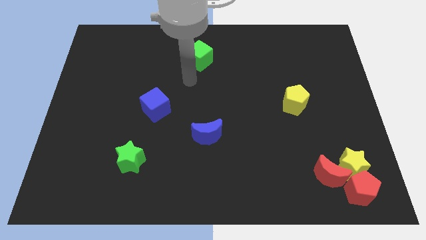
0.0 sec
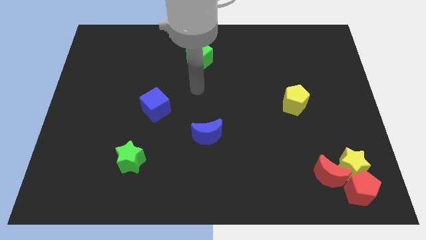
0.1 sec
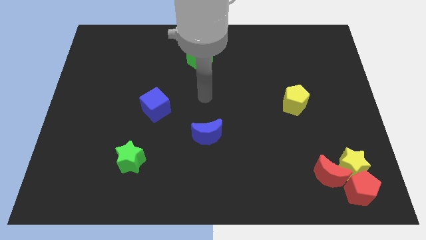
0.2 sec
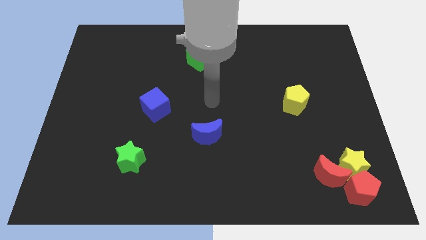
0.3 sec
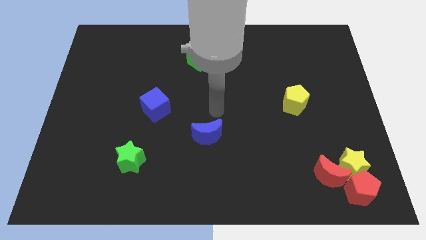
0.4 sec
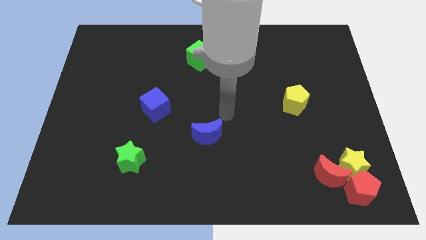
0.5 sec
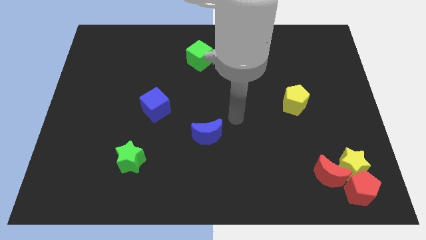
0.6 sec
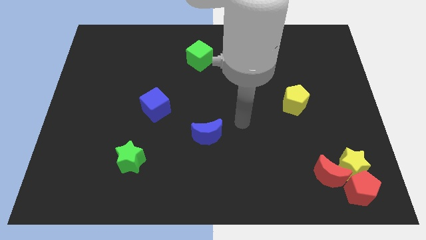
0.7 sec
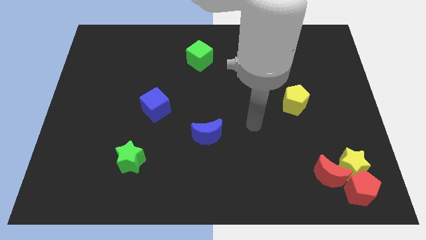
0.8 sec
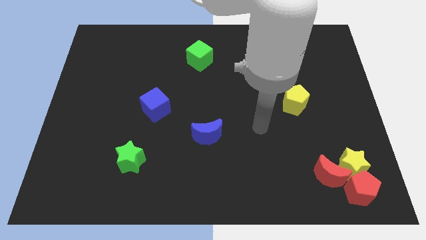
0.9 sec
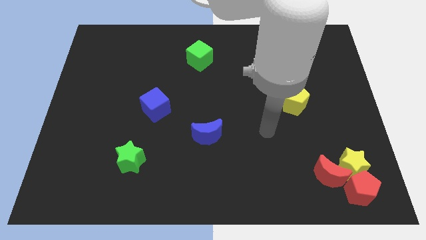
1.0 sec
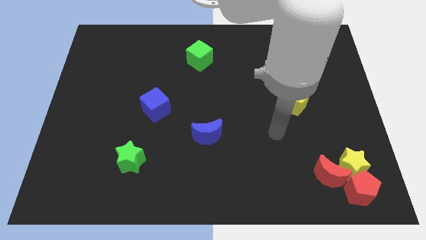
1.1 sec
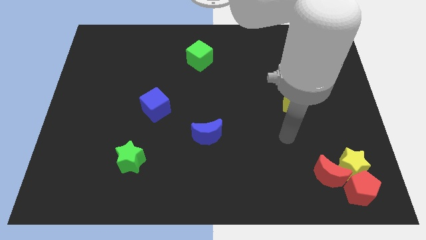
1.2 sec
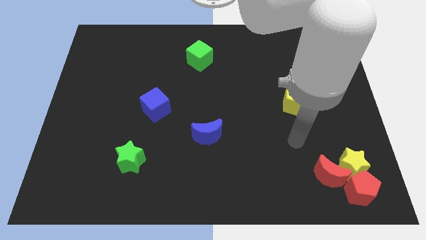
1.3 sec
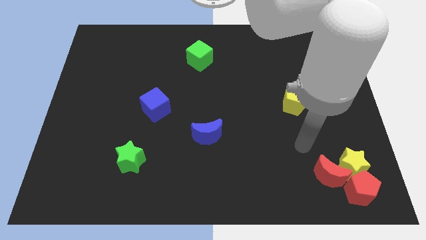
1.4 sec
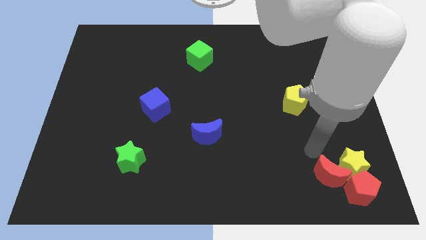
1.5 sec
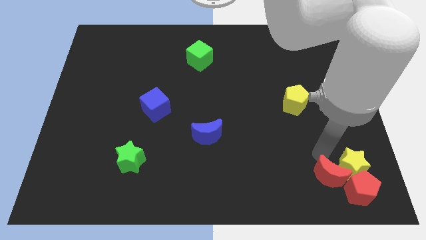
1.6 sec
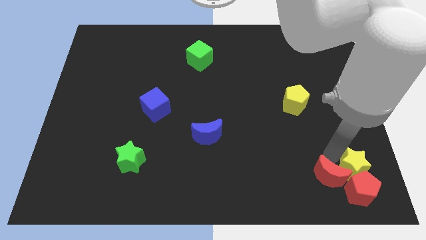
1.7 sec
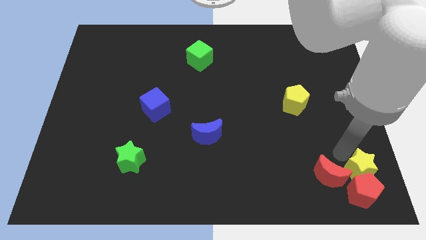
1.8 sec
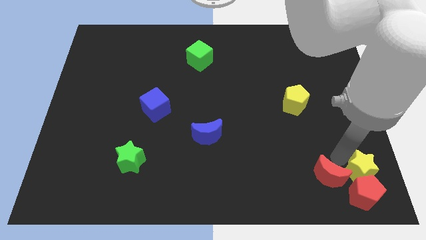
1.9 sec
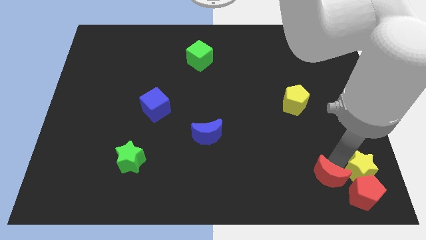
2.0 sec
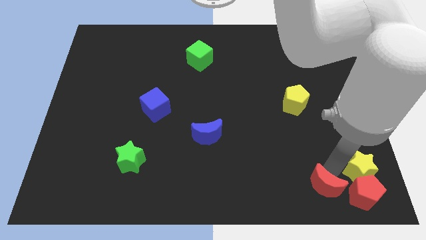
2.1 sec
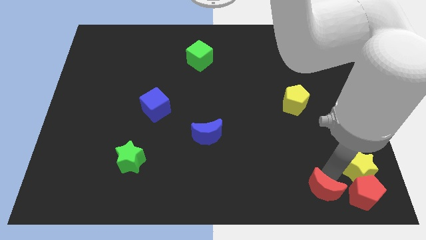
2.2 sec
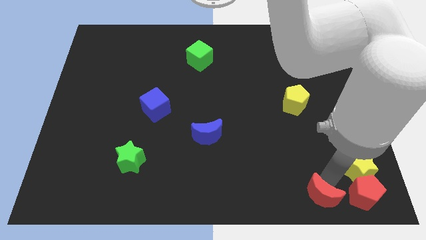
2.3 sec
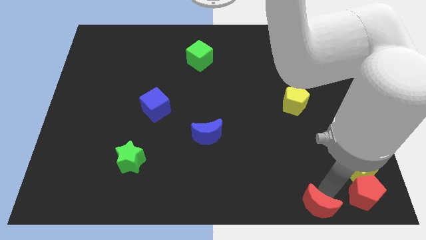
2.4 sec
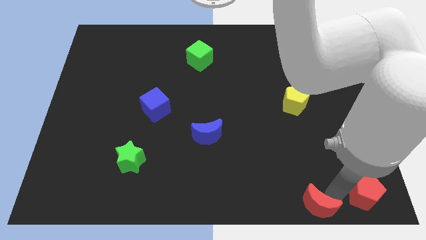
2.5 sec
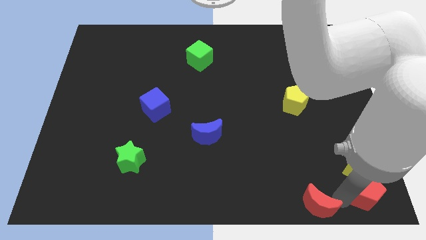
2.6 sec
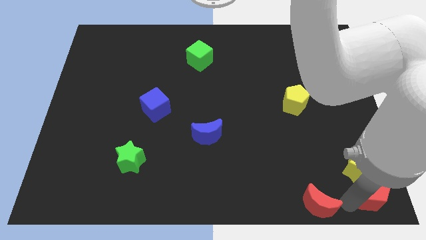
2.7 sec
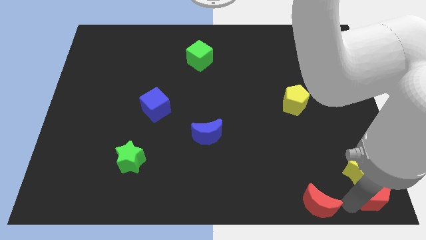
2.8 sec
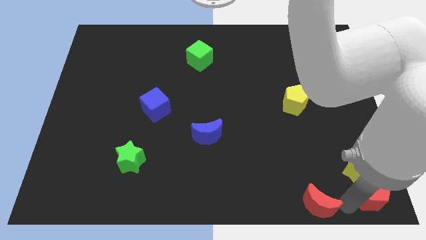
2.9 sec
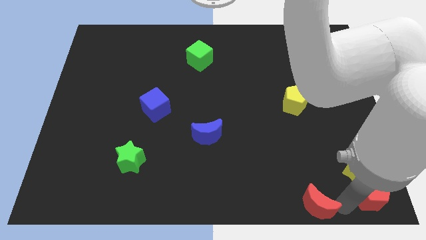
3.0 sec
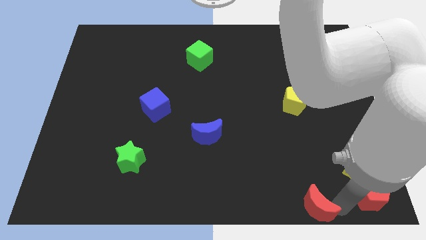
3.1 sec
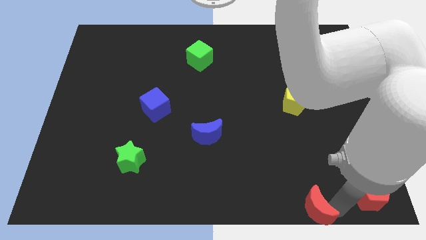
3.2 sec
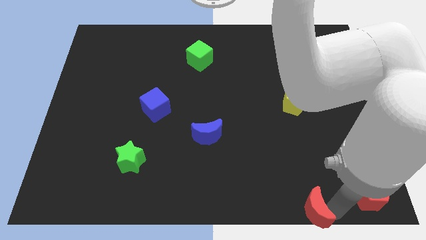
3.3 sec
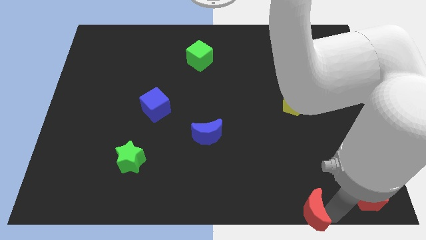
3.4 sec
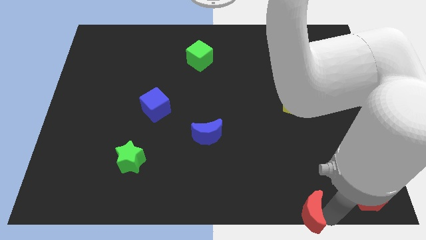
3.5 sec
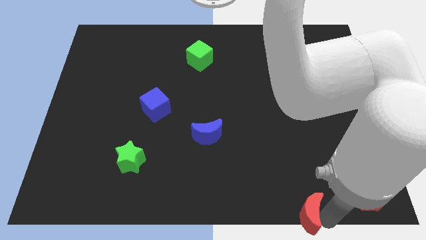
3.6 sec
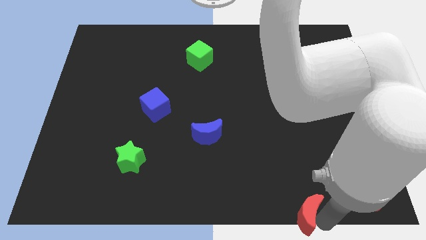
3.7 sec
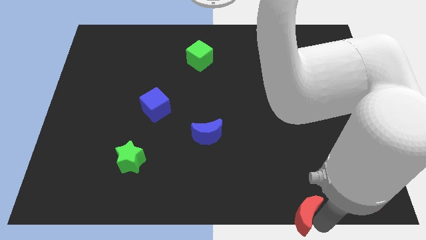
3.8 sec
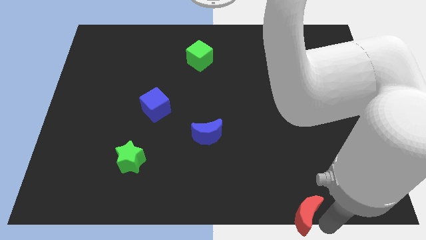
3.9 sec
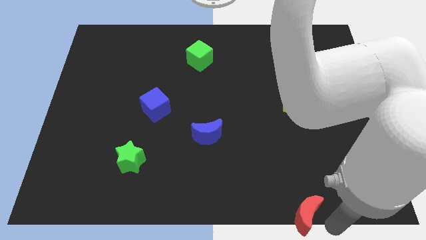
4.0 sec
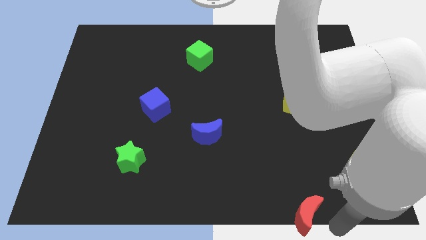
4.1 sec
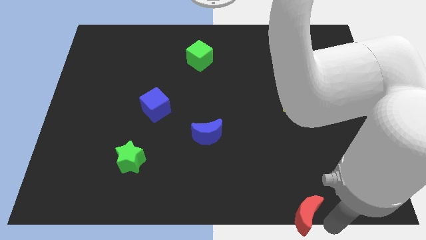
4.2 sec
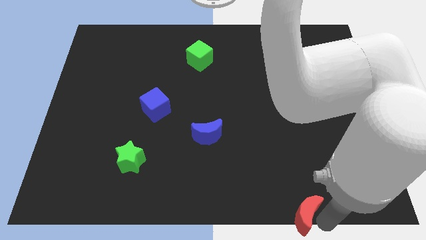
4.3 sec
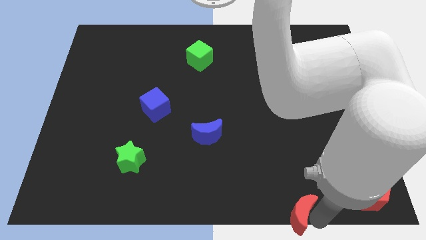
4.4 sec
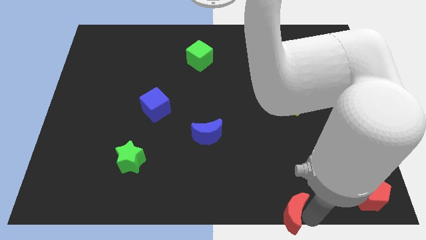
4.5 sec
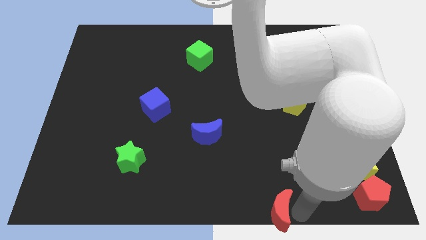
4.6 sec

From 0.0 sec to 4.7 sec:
push the red moon to the bottom

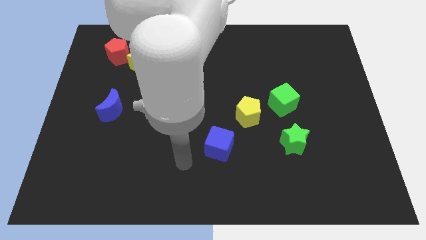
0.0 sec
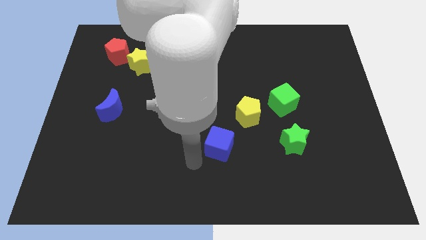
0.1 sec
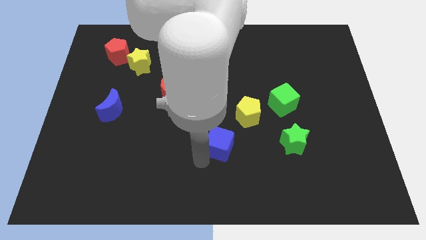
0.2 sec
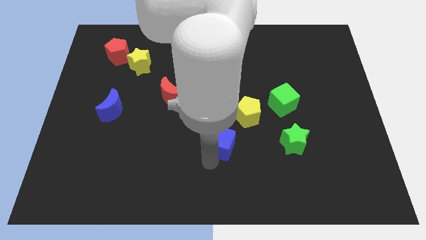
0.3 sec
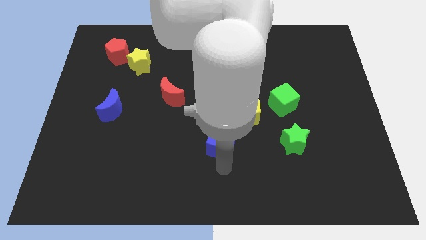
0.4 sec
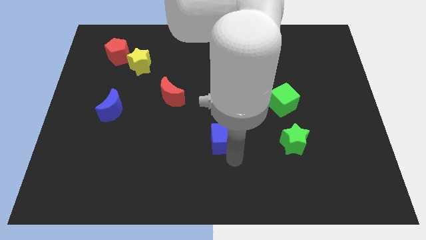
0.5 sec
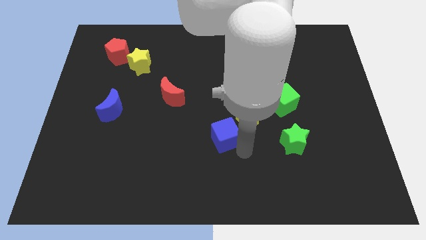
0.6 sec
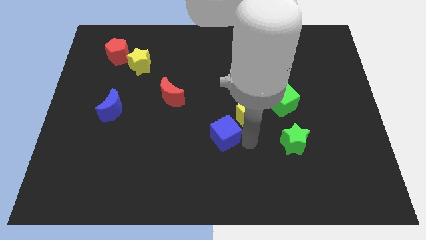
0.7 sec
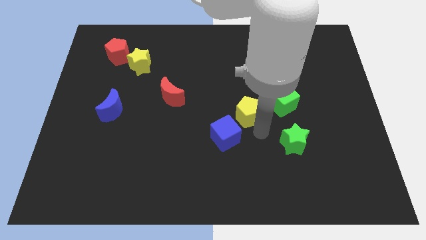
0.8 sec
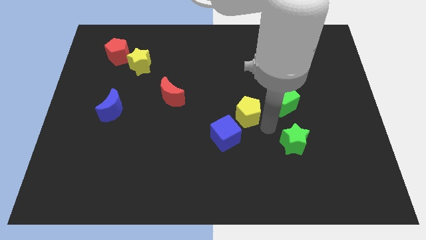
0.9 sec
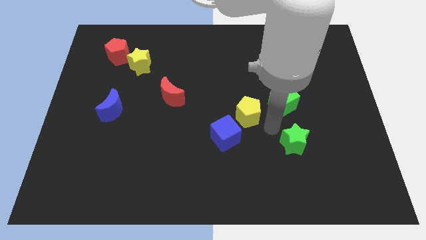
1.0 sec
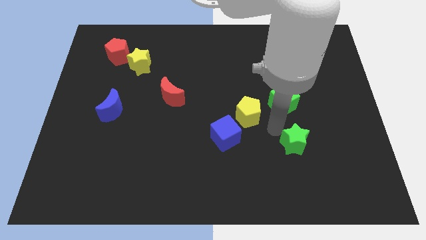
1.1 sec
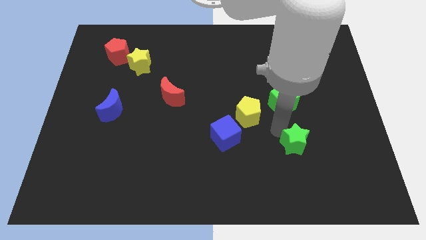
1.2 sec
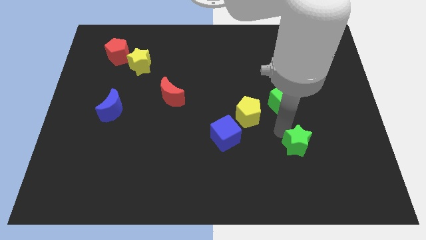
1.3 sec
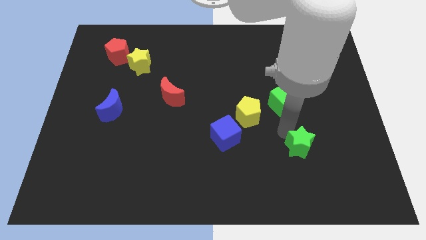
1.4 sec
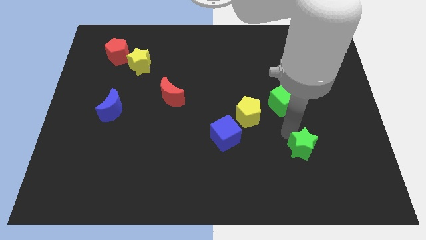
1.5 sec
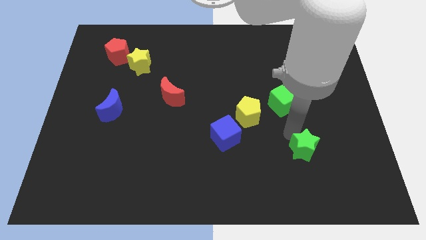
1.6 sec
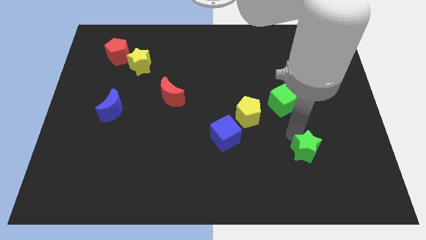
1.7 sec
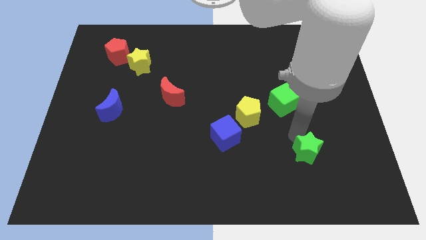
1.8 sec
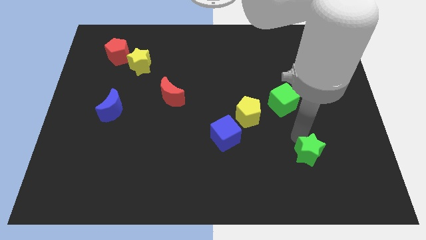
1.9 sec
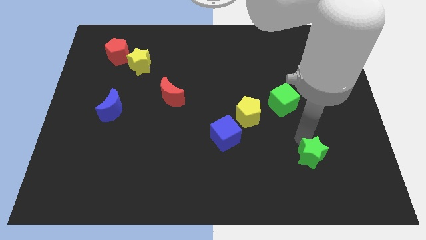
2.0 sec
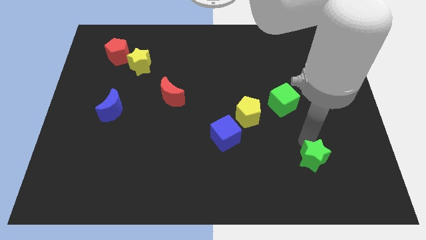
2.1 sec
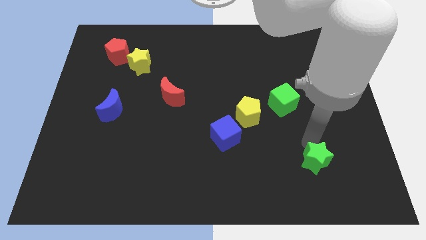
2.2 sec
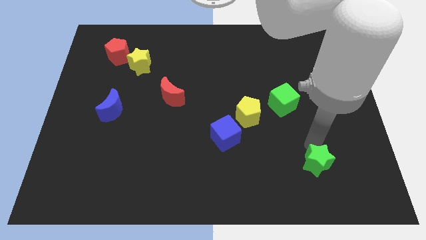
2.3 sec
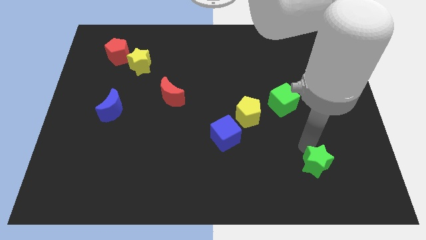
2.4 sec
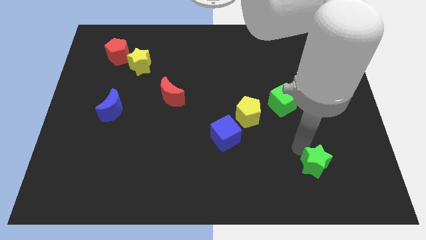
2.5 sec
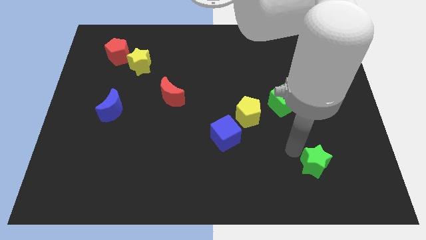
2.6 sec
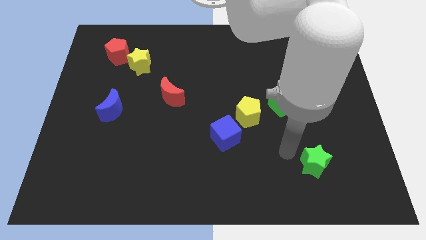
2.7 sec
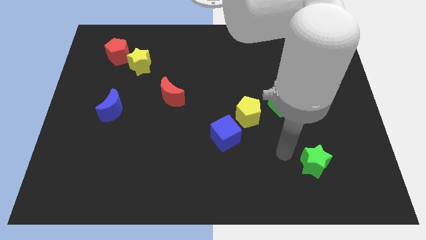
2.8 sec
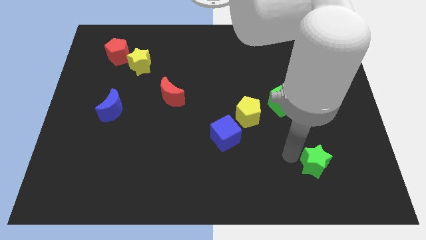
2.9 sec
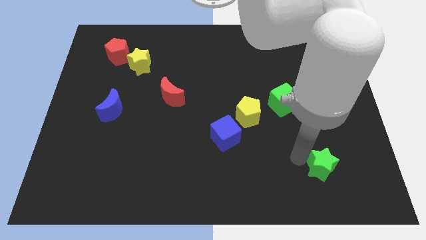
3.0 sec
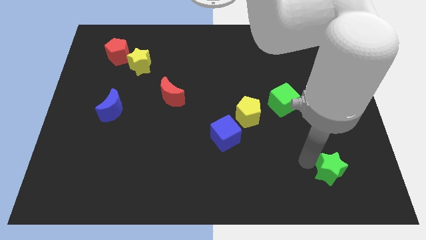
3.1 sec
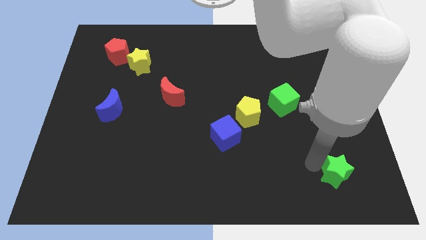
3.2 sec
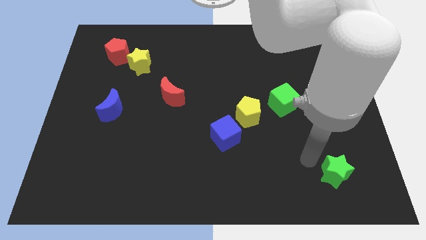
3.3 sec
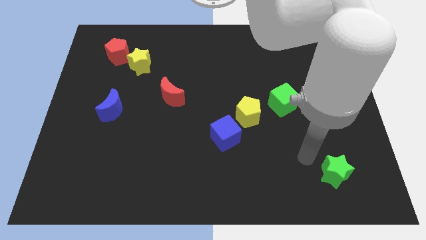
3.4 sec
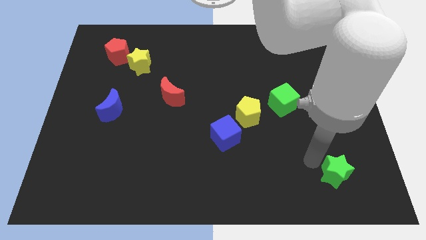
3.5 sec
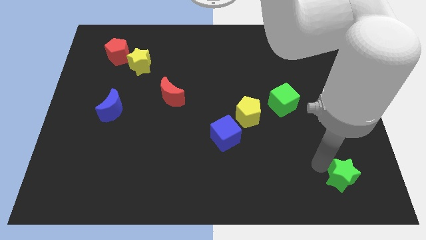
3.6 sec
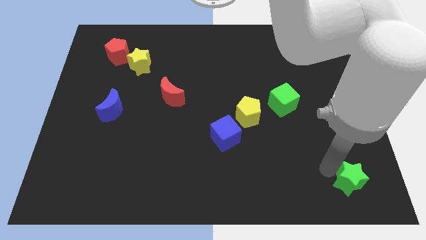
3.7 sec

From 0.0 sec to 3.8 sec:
push the green star to the bottom right of the board
